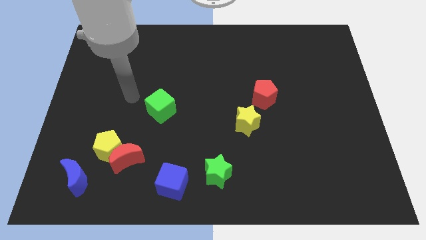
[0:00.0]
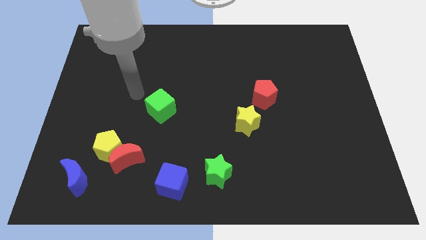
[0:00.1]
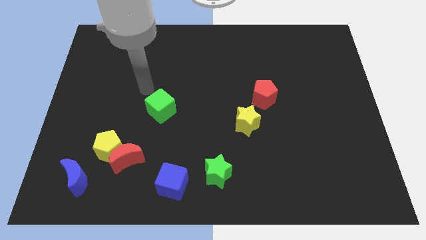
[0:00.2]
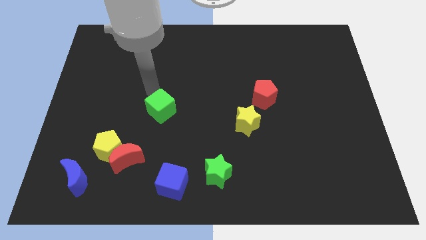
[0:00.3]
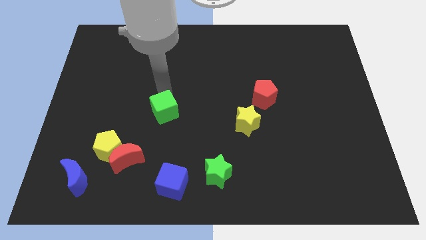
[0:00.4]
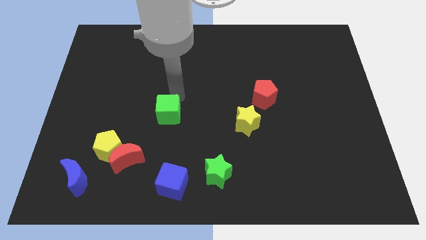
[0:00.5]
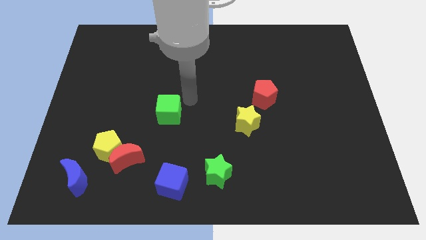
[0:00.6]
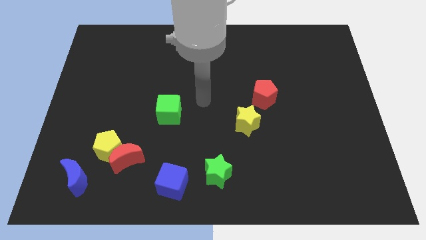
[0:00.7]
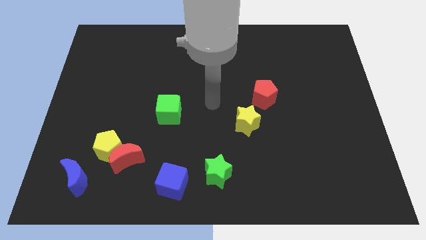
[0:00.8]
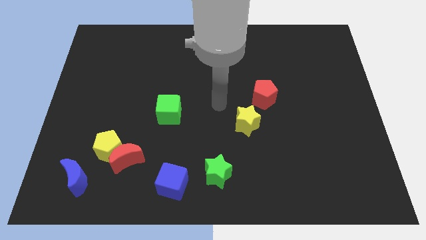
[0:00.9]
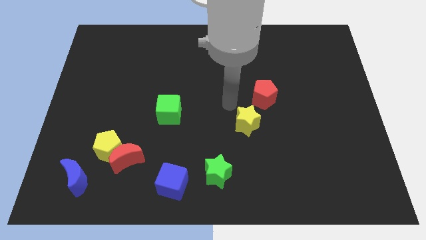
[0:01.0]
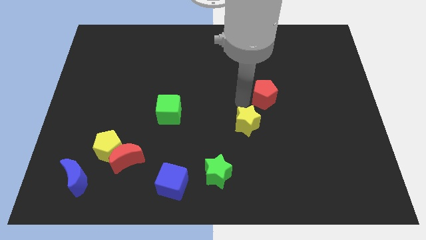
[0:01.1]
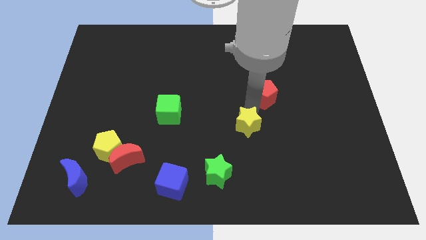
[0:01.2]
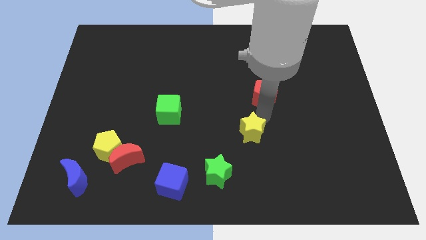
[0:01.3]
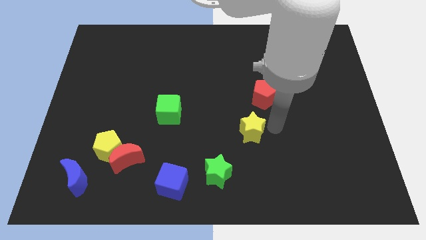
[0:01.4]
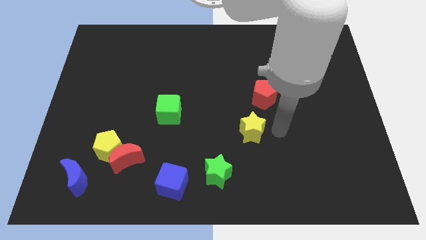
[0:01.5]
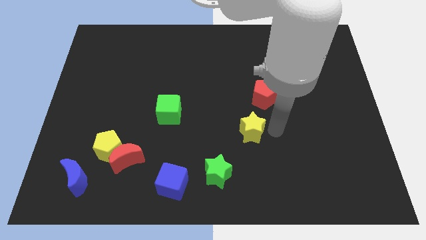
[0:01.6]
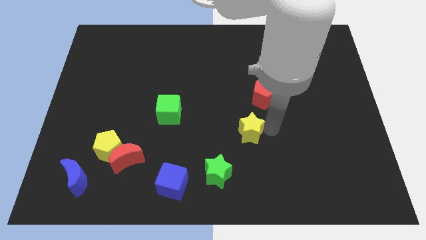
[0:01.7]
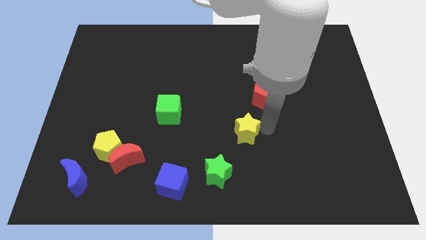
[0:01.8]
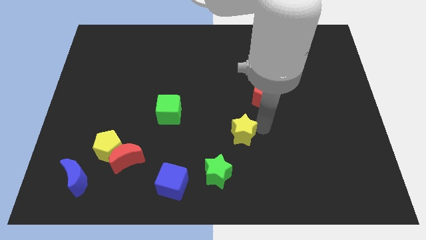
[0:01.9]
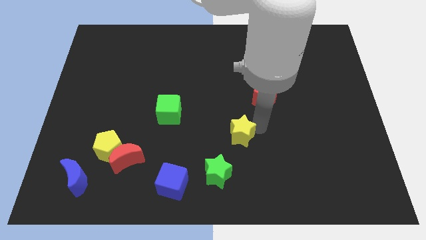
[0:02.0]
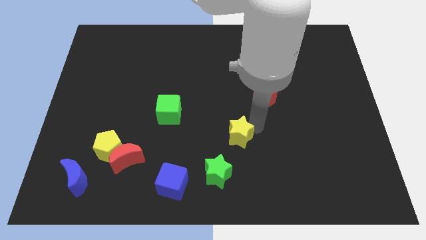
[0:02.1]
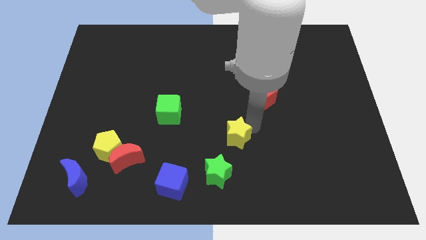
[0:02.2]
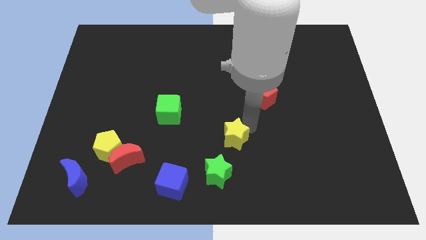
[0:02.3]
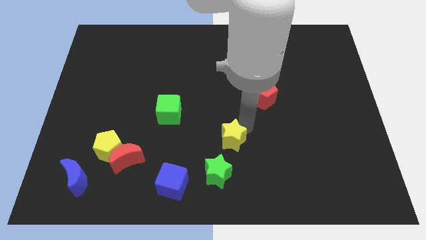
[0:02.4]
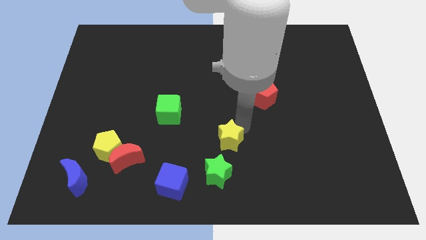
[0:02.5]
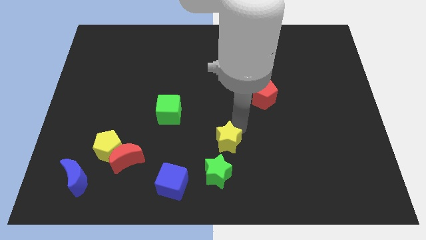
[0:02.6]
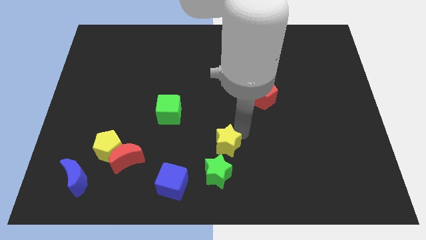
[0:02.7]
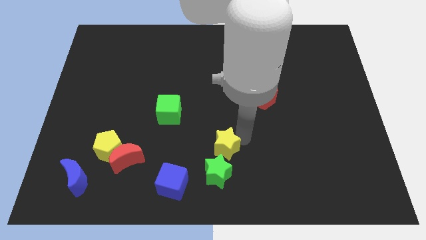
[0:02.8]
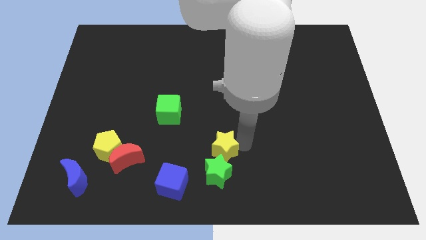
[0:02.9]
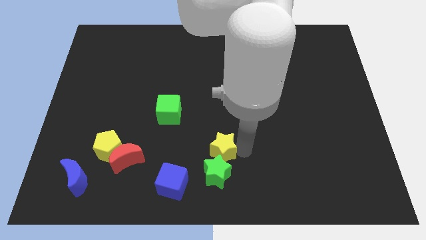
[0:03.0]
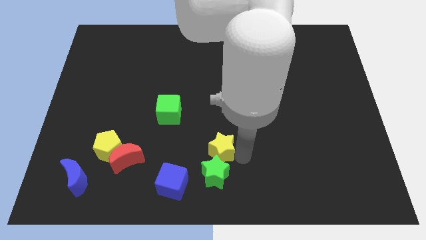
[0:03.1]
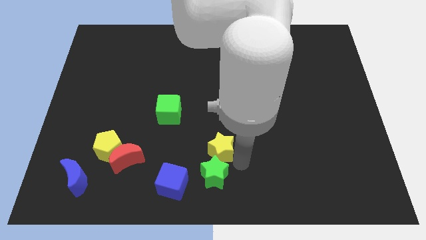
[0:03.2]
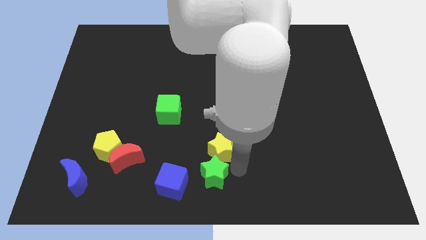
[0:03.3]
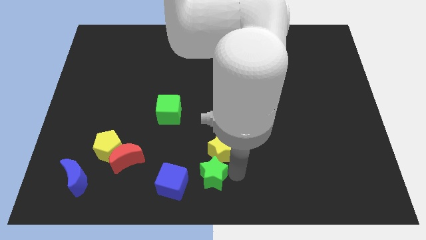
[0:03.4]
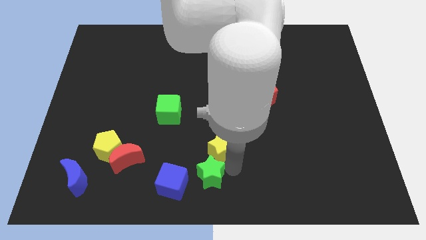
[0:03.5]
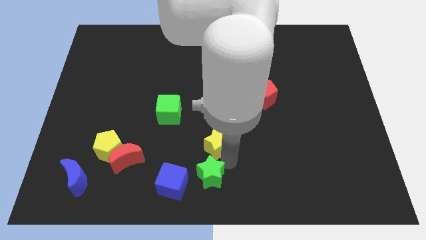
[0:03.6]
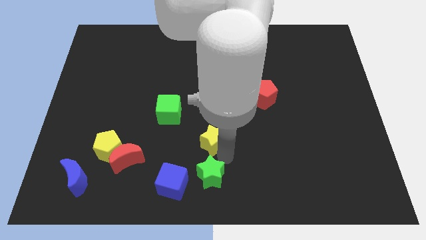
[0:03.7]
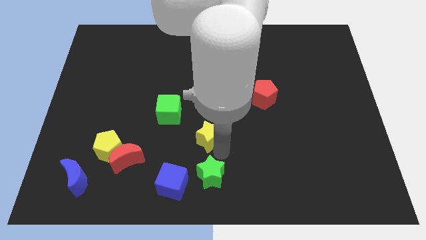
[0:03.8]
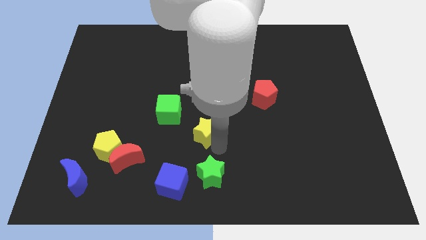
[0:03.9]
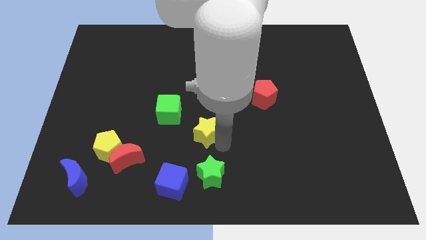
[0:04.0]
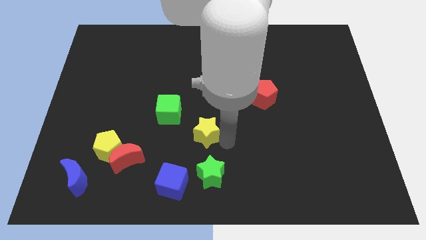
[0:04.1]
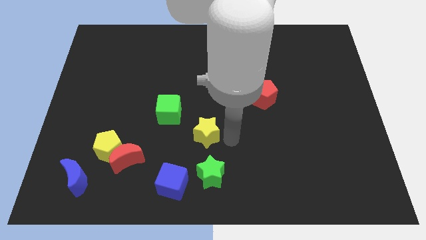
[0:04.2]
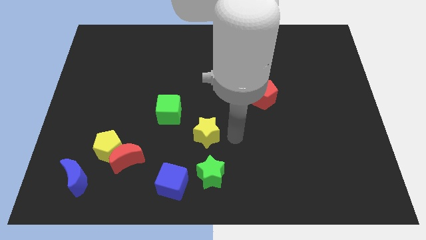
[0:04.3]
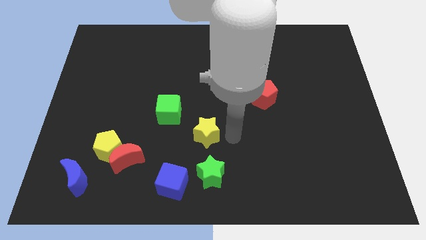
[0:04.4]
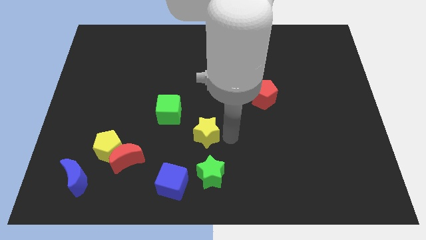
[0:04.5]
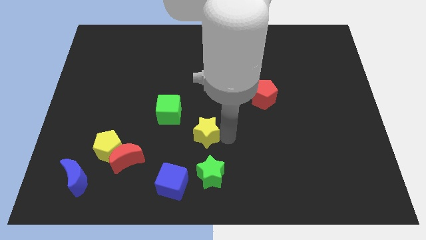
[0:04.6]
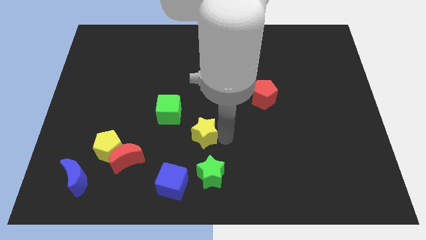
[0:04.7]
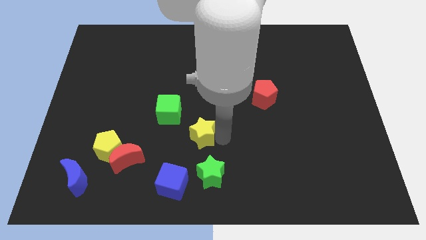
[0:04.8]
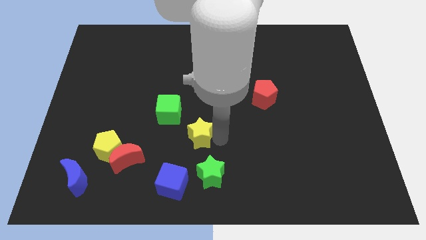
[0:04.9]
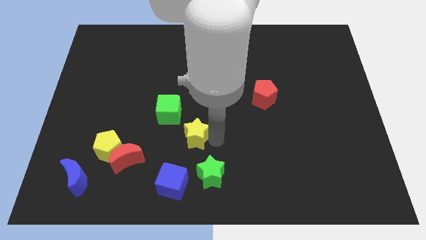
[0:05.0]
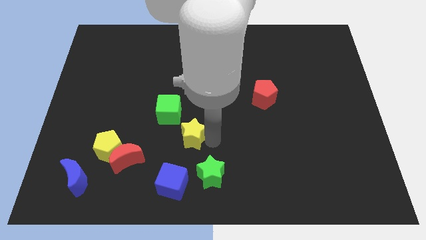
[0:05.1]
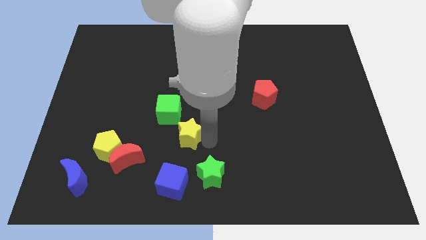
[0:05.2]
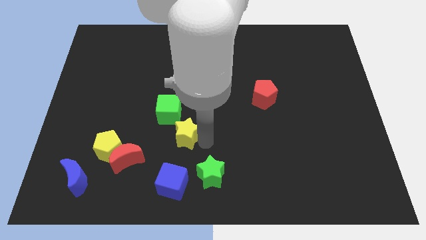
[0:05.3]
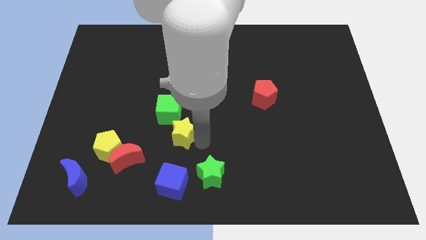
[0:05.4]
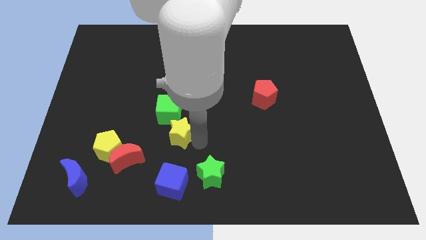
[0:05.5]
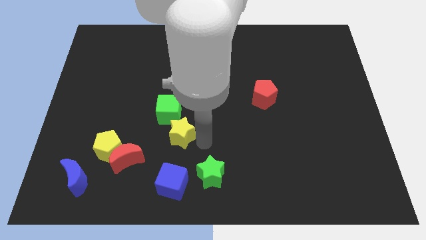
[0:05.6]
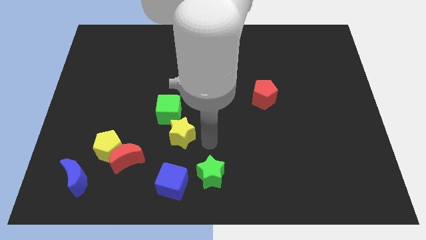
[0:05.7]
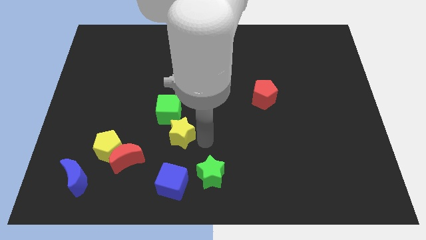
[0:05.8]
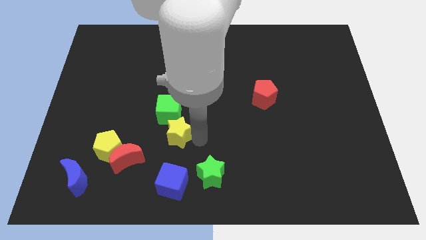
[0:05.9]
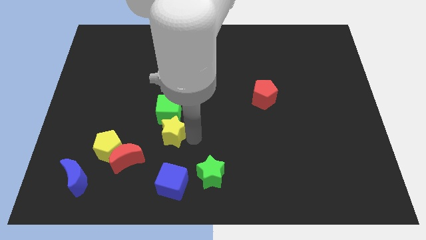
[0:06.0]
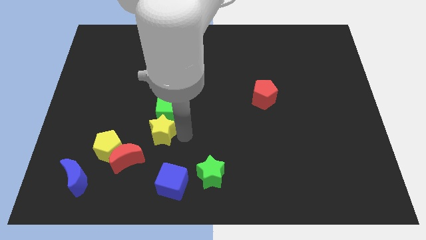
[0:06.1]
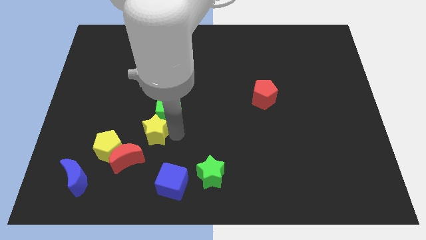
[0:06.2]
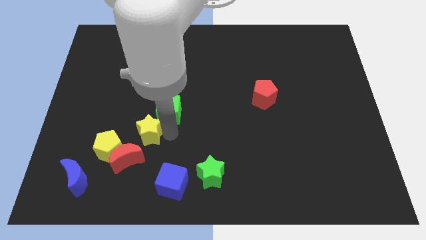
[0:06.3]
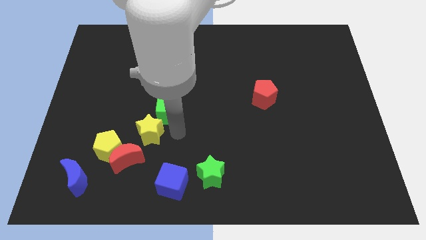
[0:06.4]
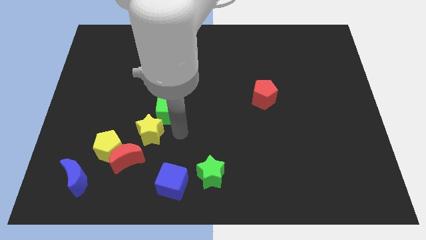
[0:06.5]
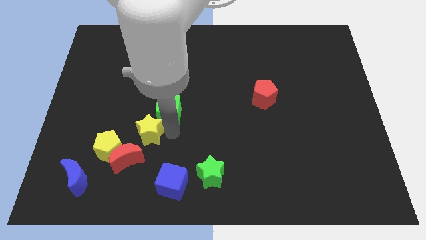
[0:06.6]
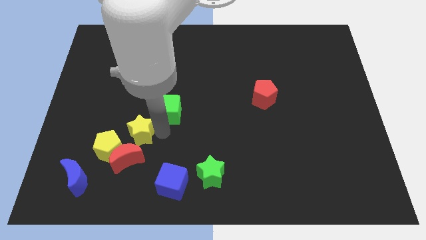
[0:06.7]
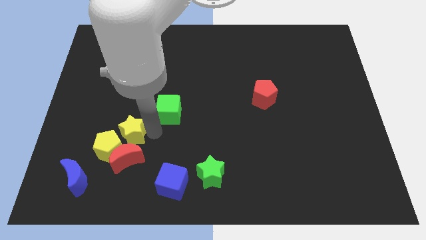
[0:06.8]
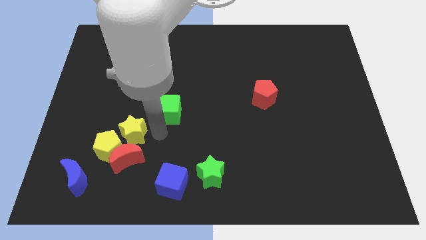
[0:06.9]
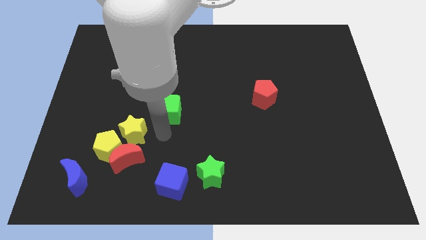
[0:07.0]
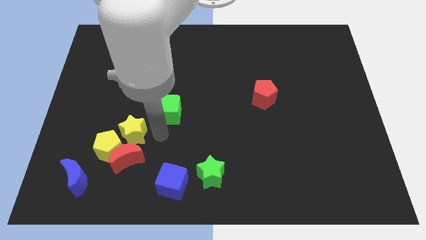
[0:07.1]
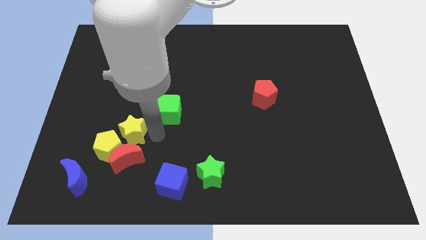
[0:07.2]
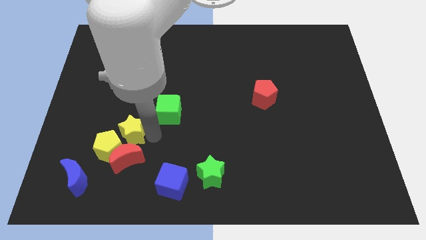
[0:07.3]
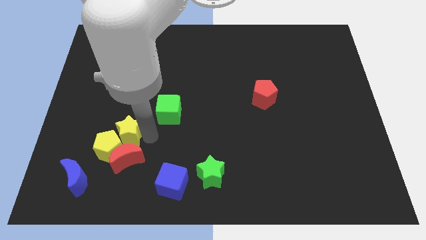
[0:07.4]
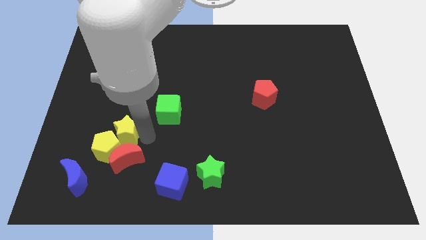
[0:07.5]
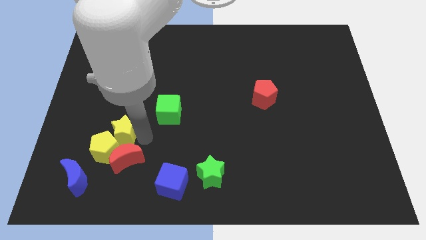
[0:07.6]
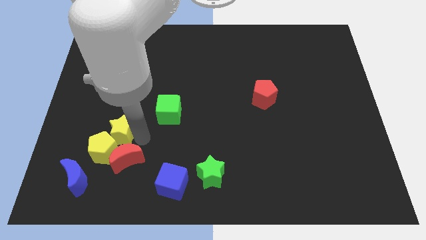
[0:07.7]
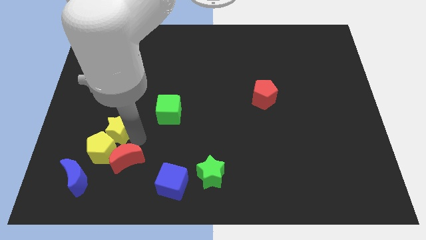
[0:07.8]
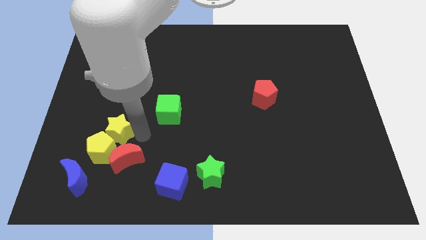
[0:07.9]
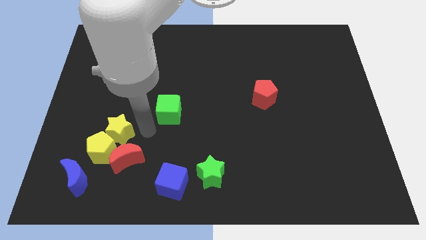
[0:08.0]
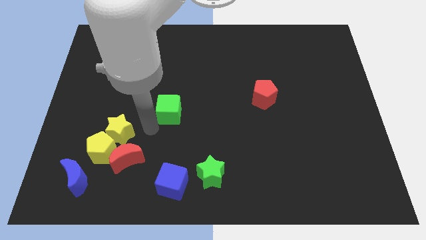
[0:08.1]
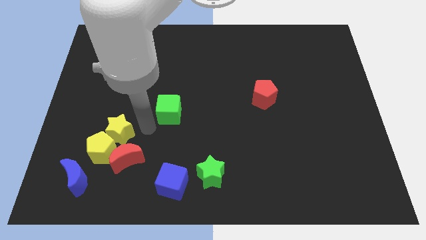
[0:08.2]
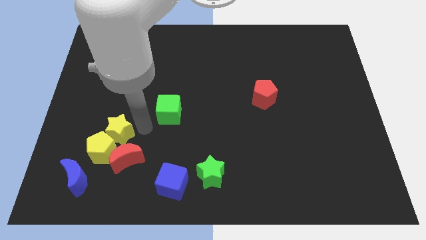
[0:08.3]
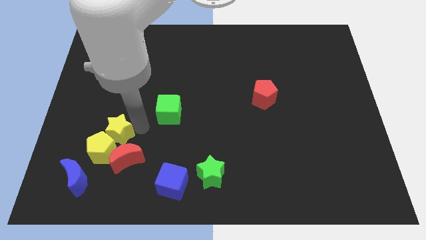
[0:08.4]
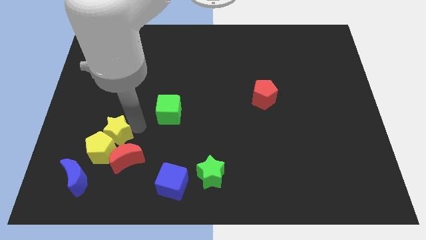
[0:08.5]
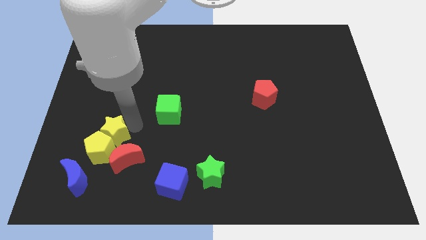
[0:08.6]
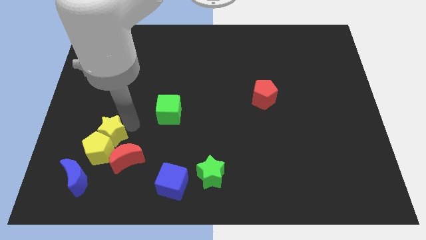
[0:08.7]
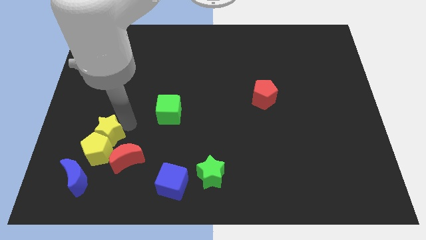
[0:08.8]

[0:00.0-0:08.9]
put the yellow star above the blue moon
